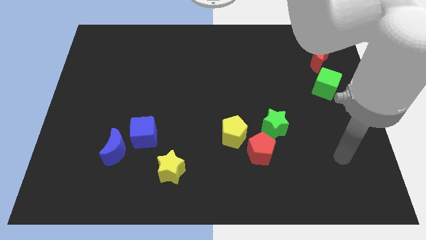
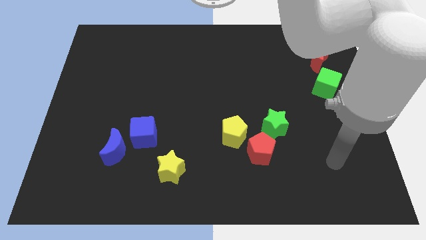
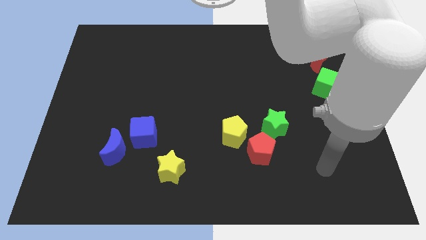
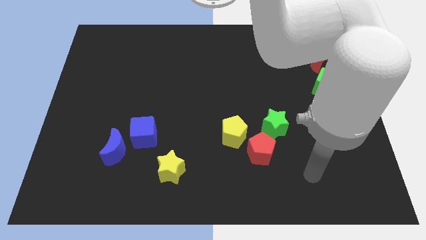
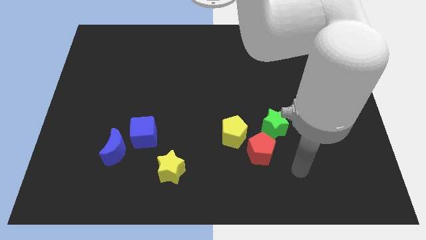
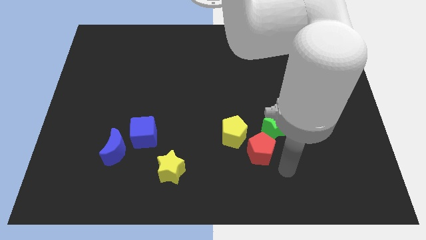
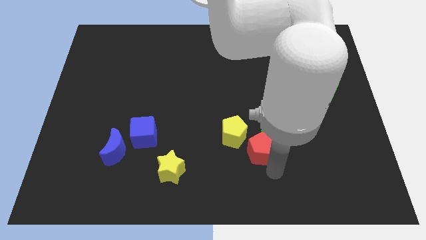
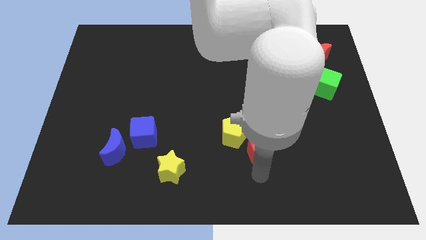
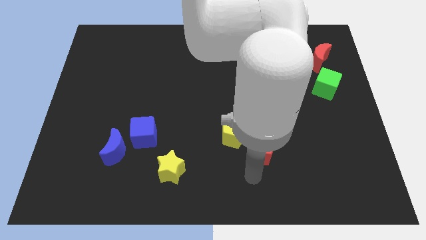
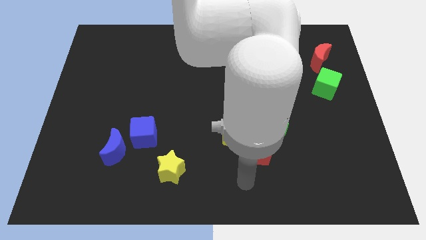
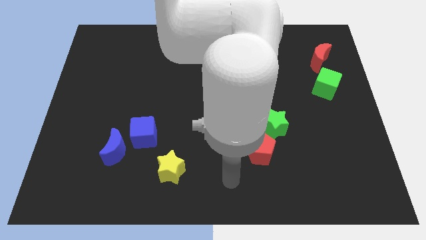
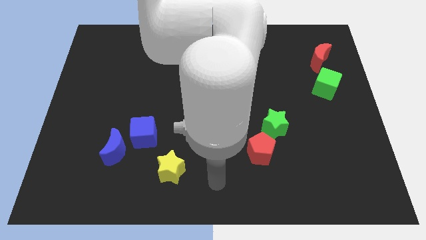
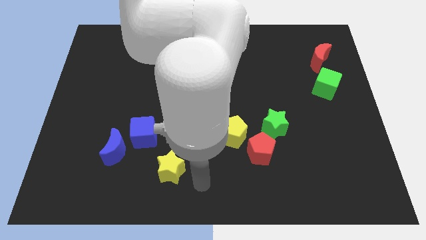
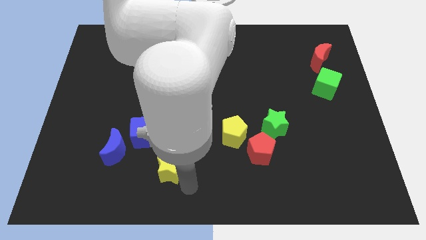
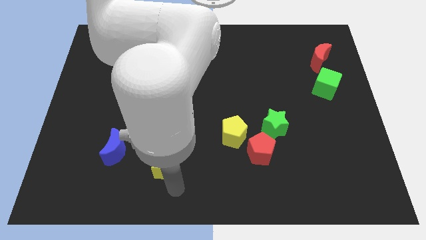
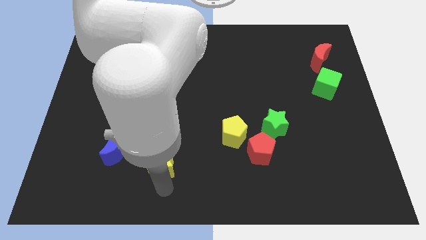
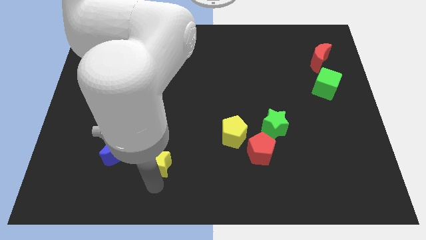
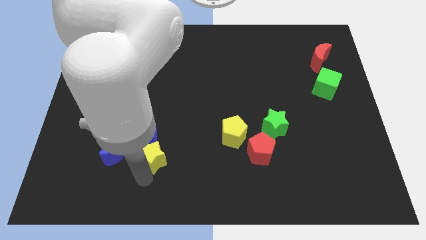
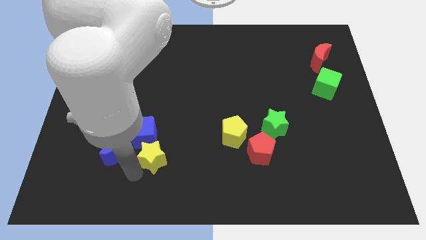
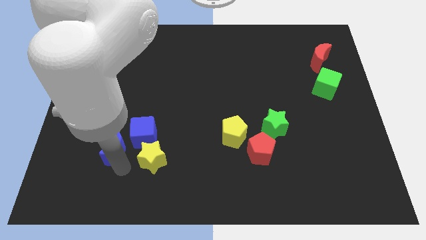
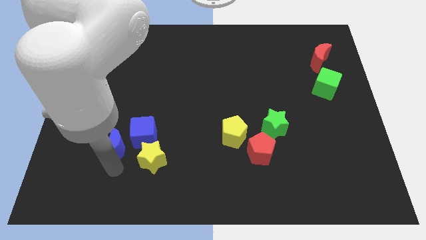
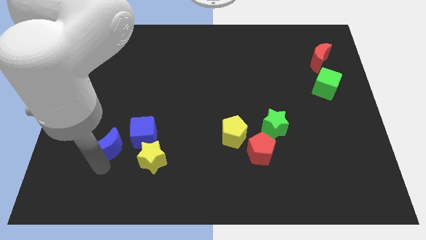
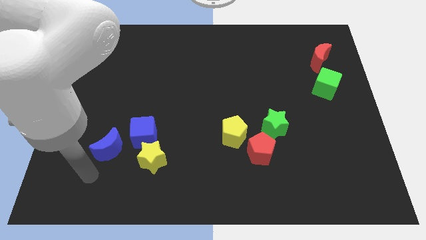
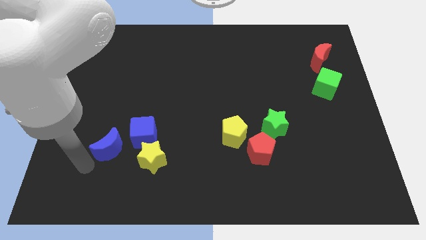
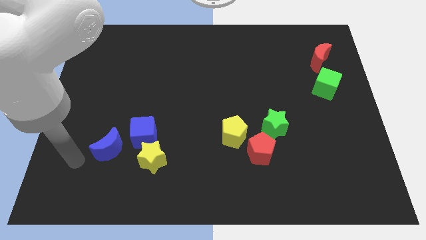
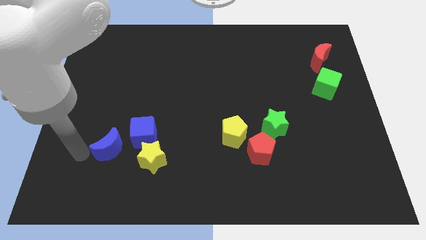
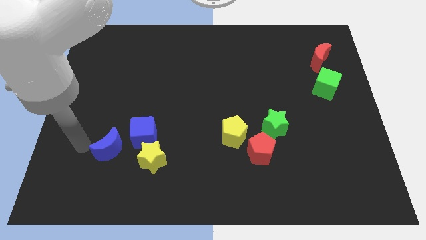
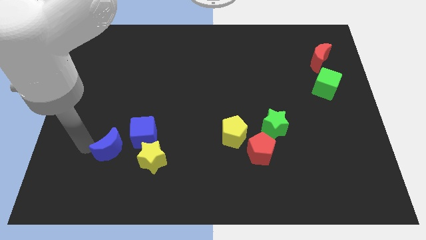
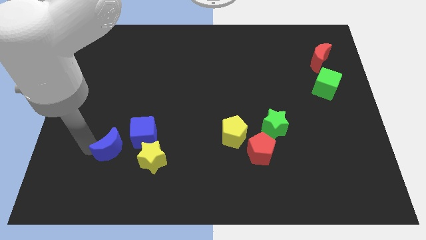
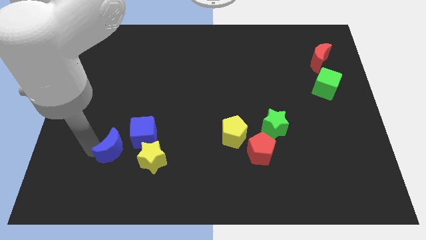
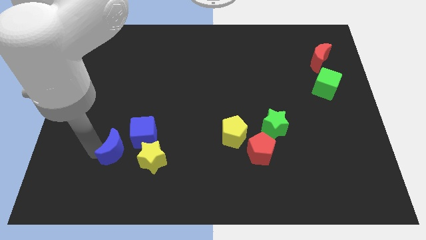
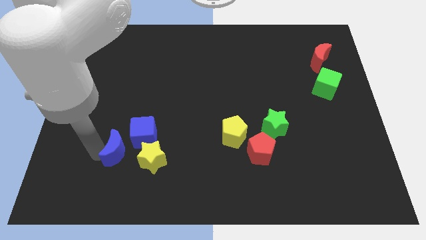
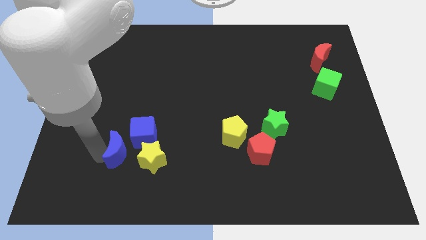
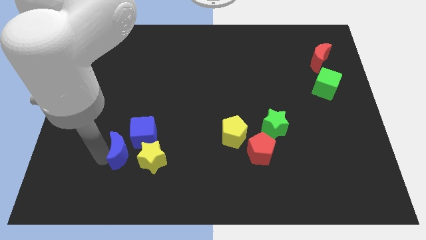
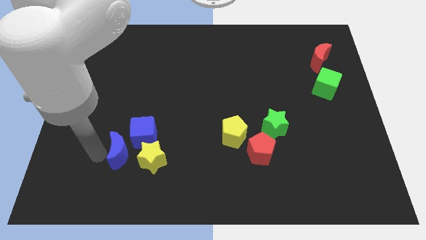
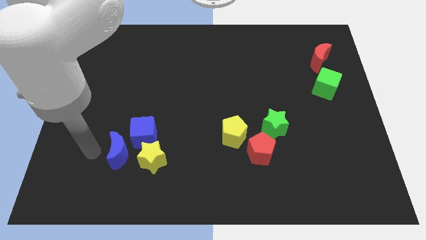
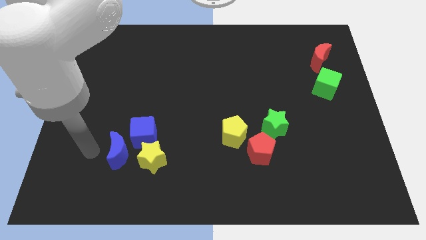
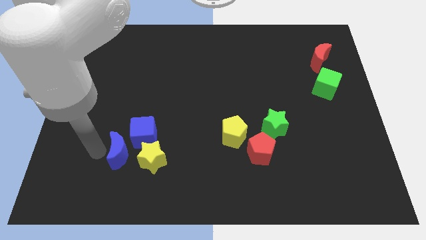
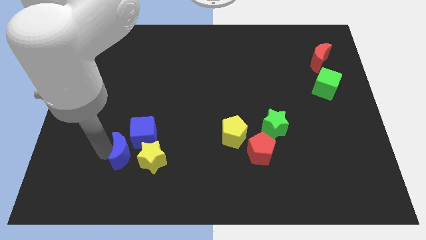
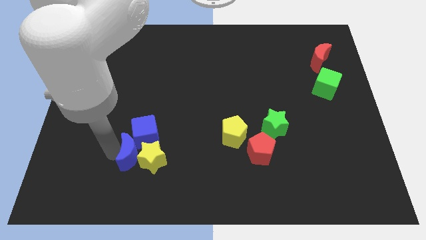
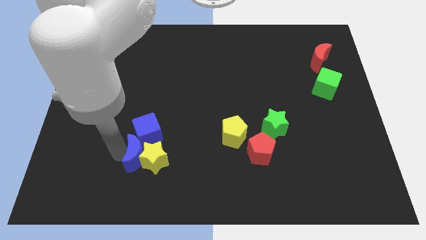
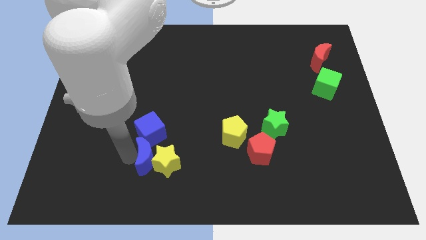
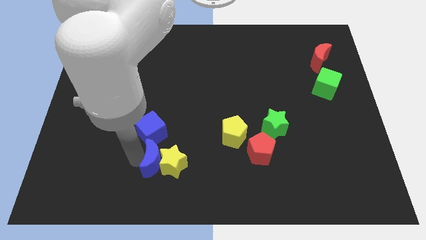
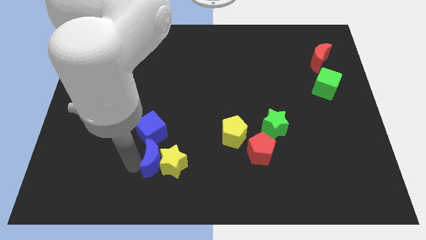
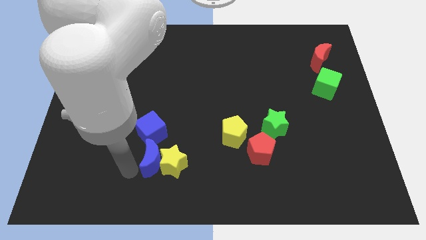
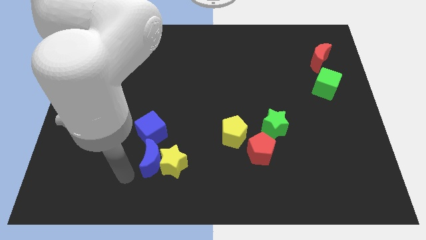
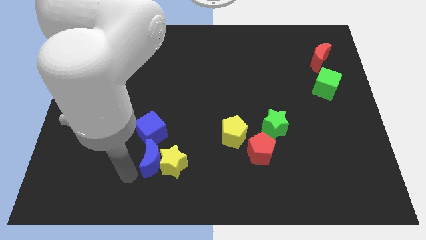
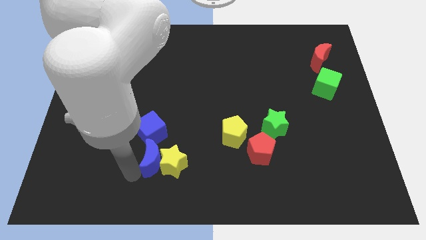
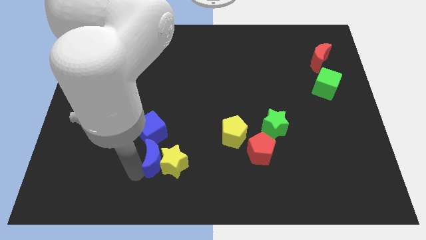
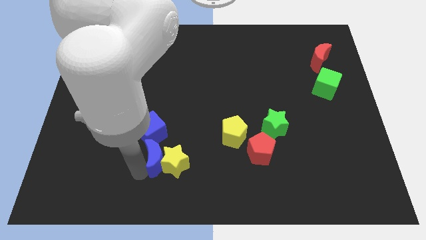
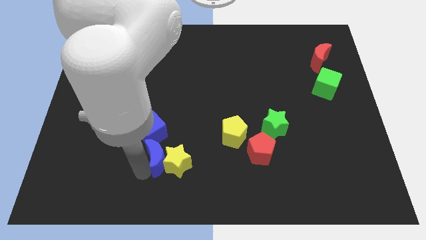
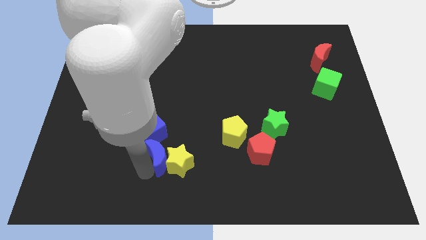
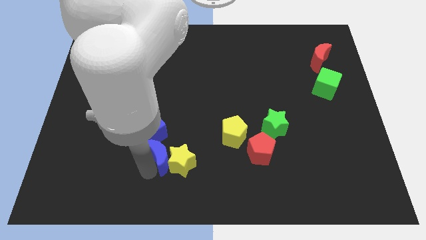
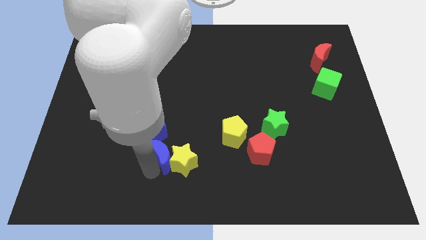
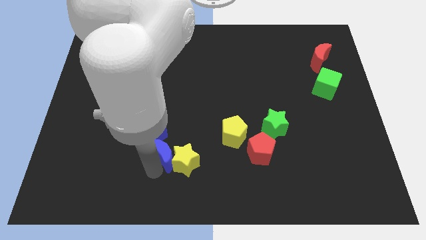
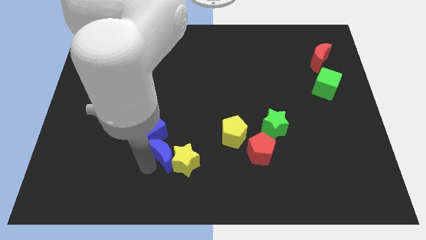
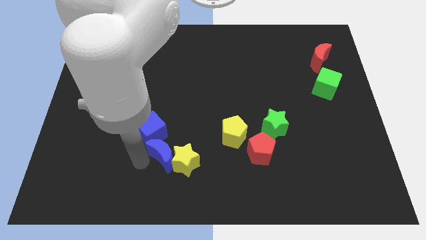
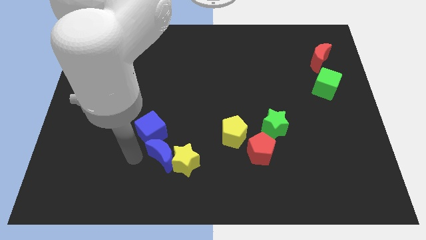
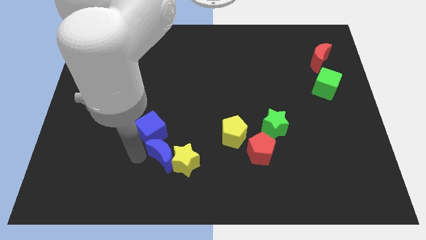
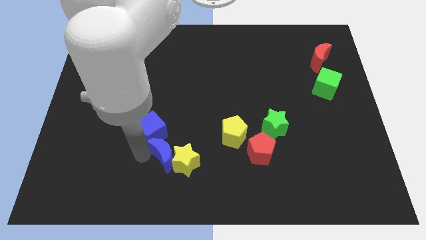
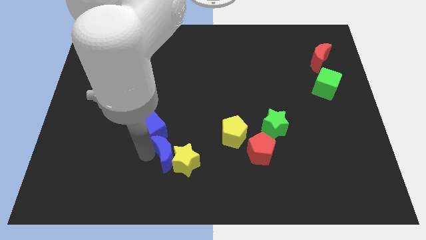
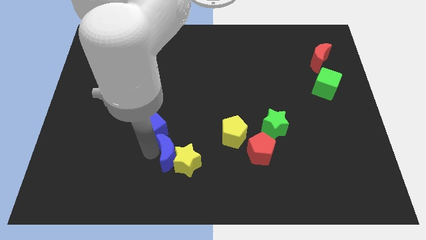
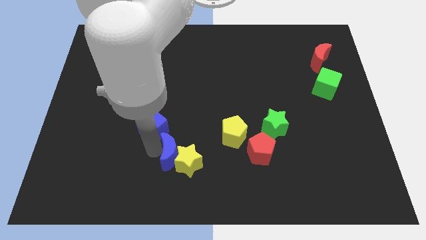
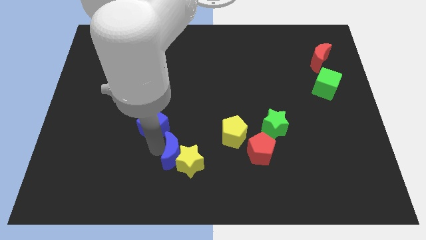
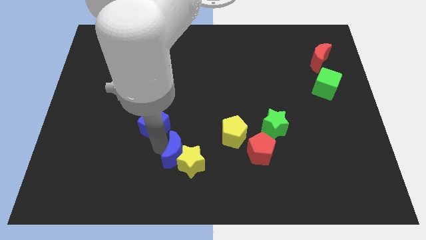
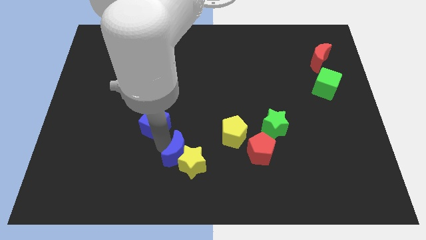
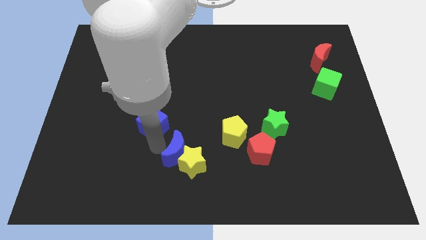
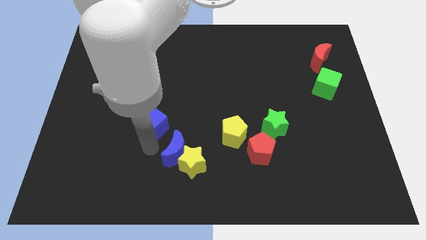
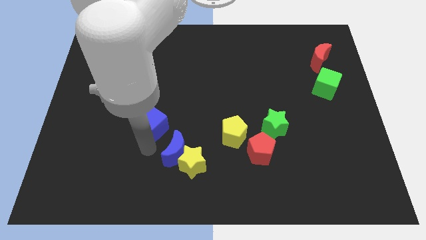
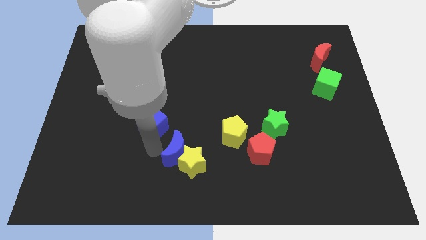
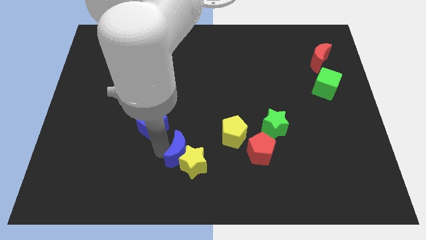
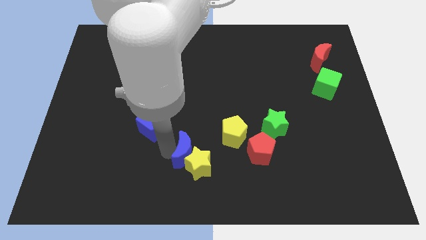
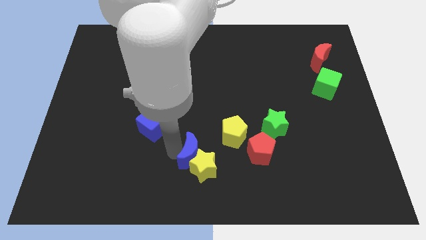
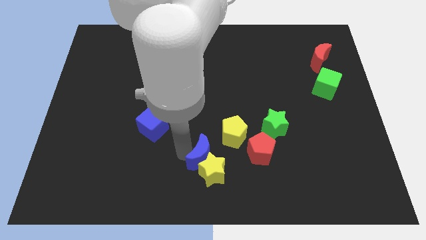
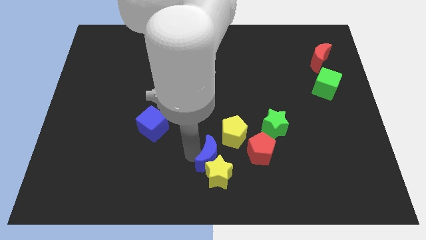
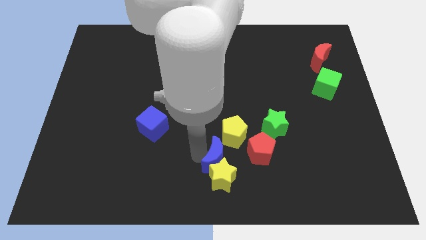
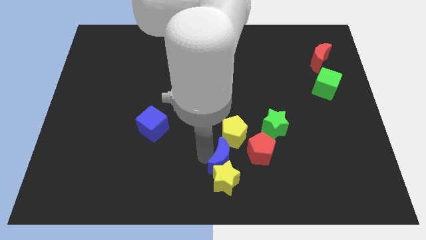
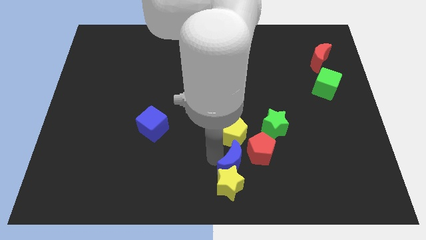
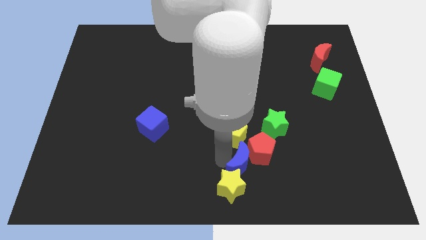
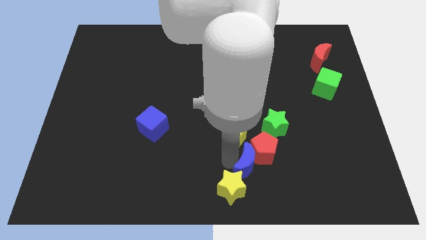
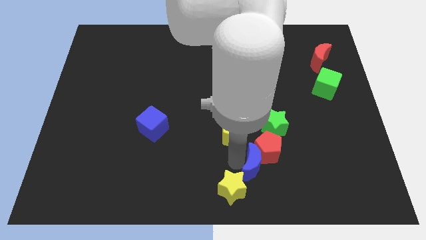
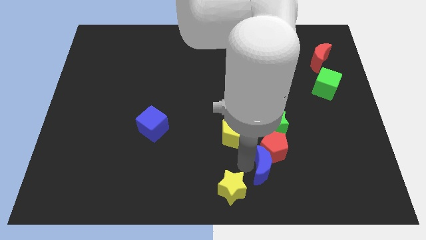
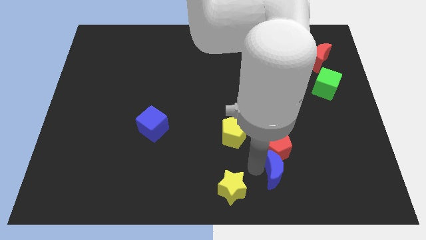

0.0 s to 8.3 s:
slide the blue moon to the bottom right of the red pentagon
